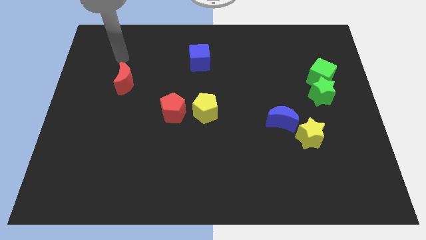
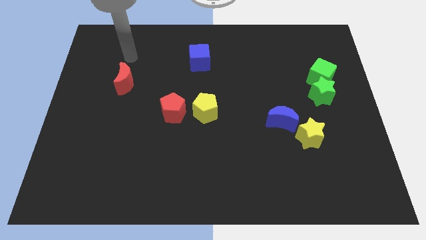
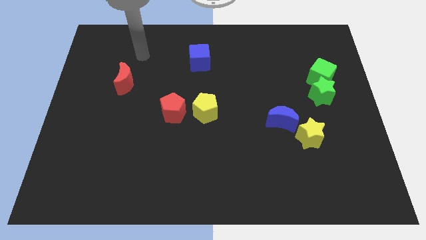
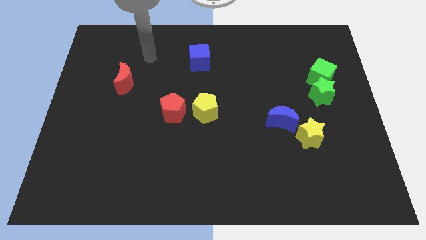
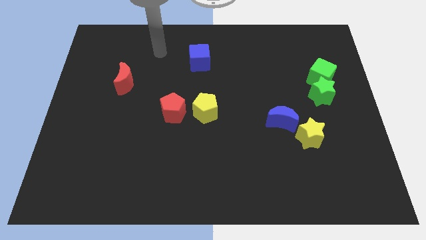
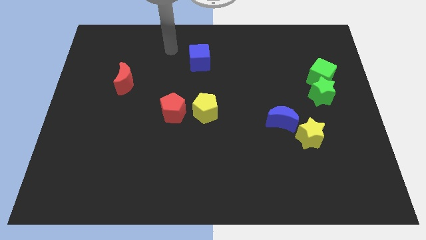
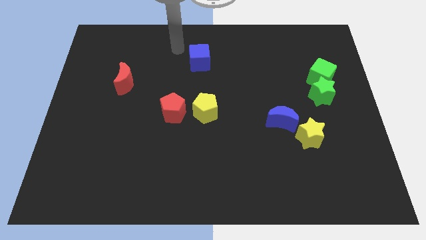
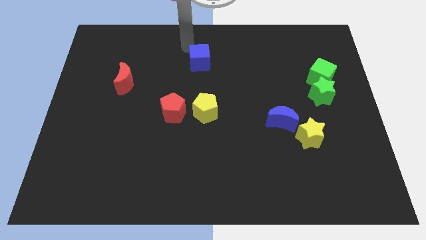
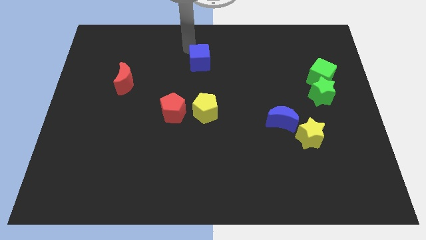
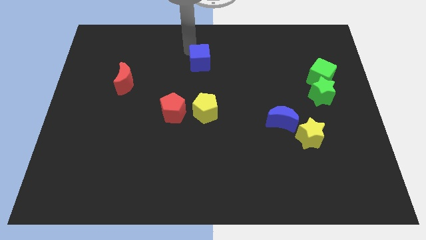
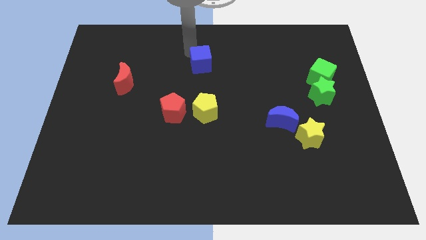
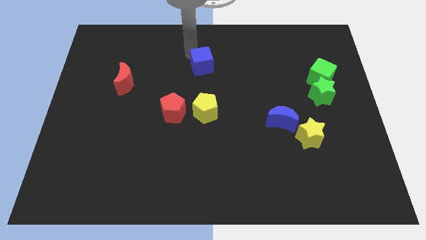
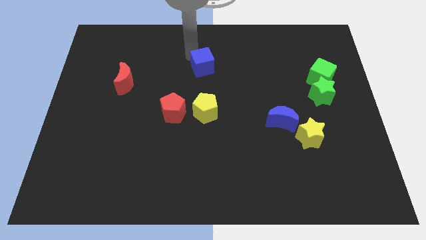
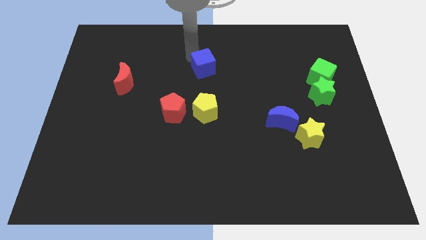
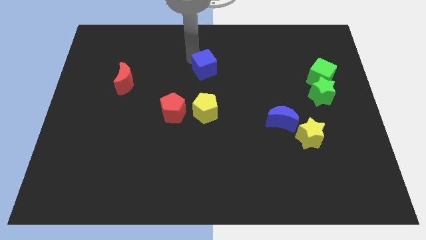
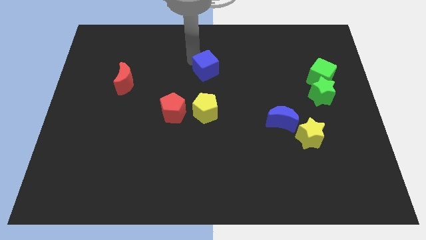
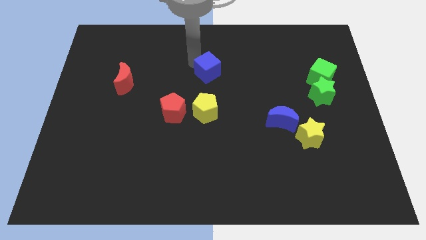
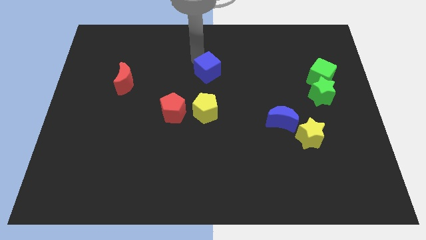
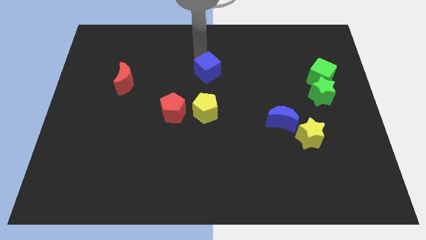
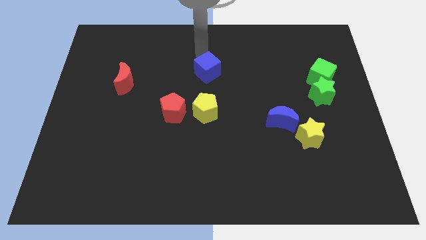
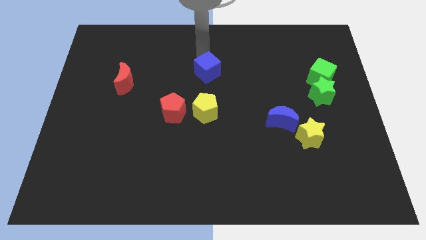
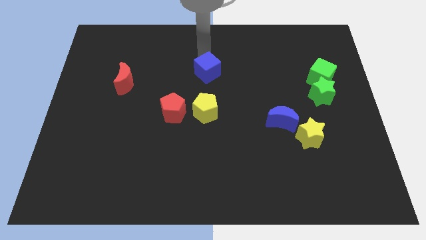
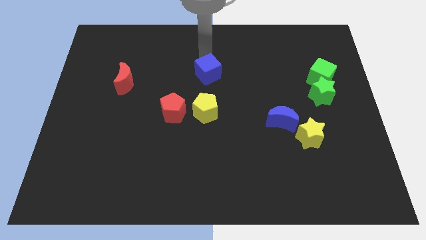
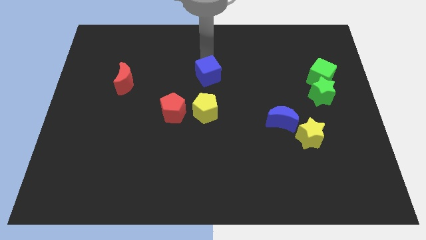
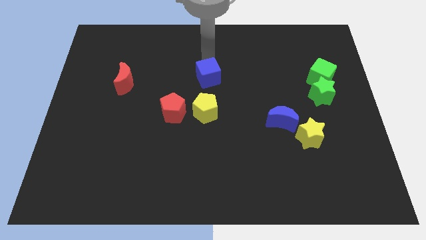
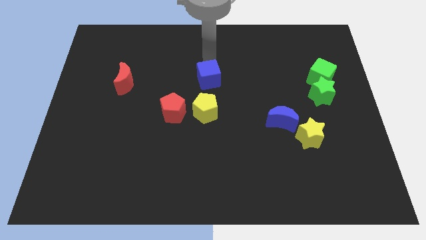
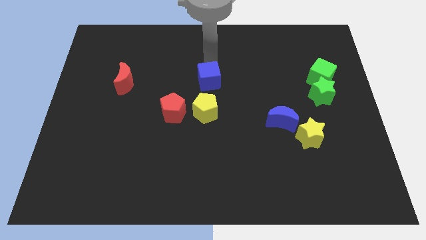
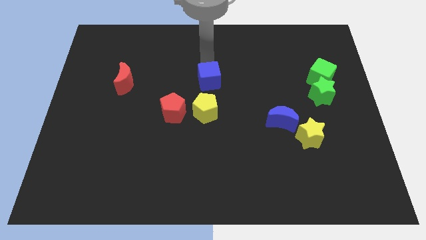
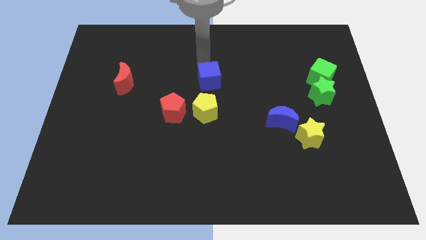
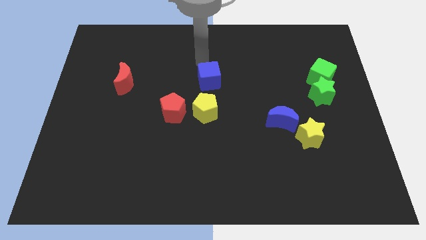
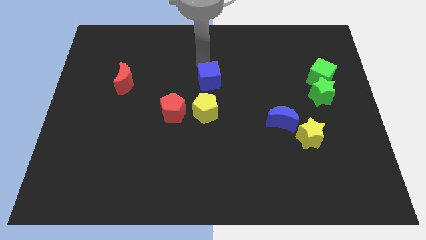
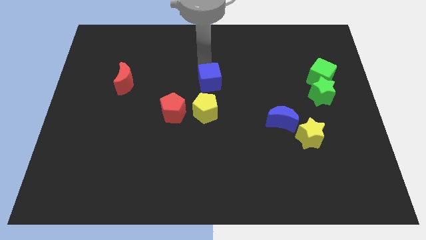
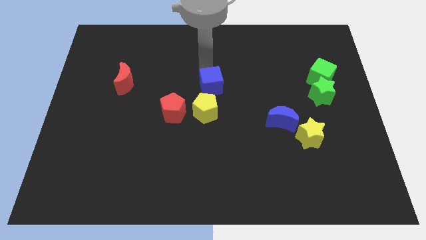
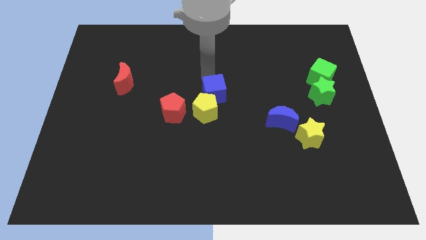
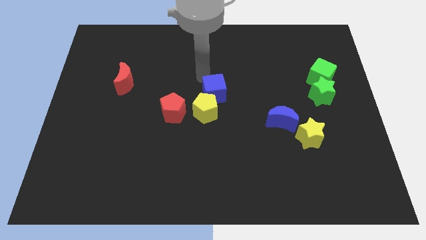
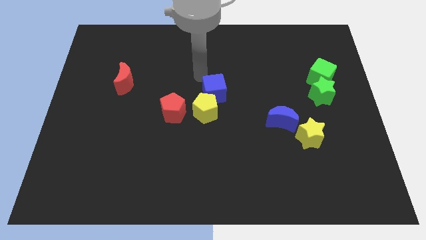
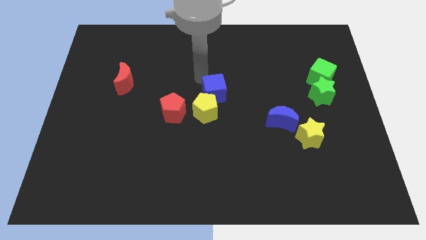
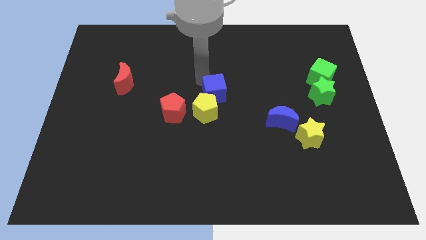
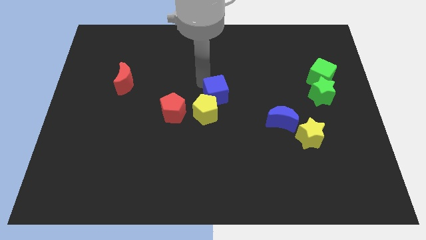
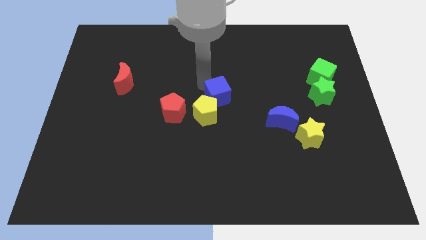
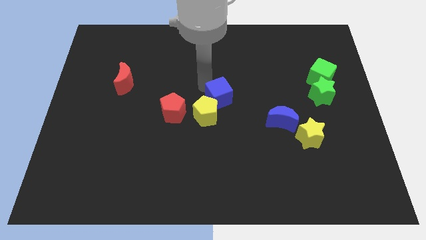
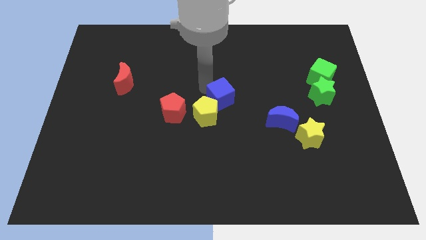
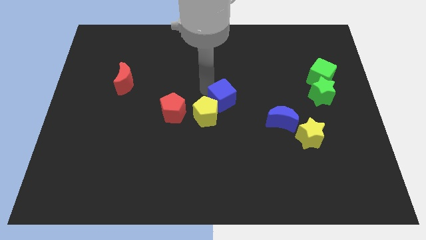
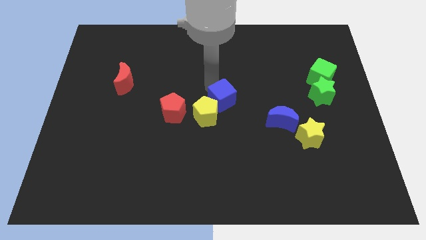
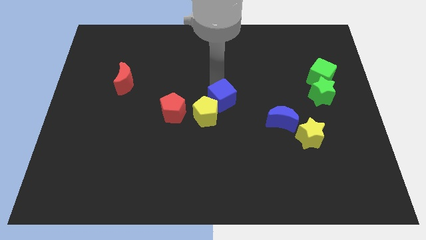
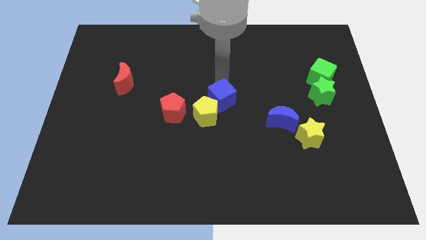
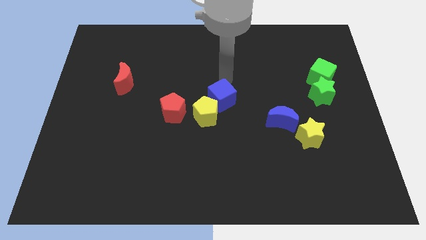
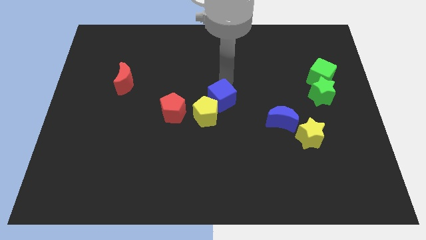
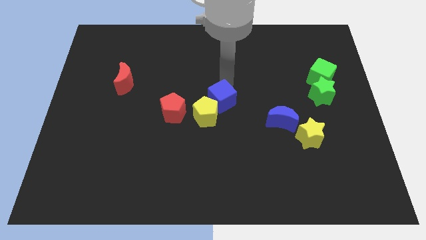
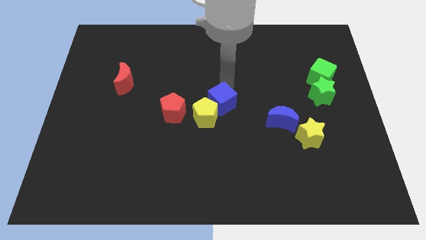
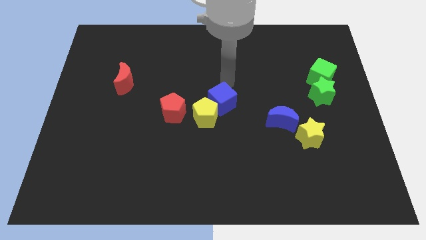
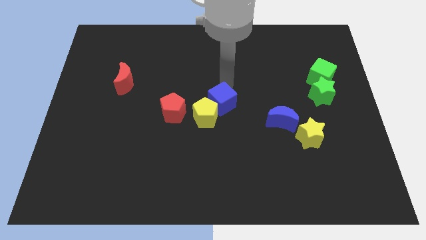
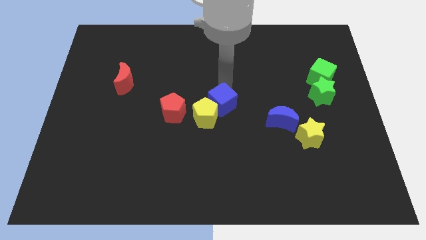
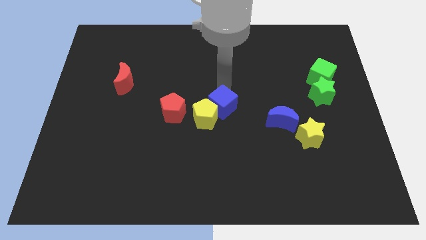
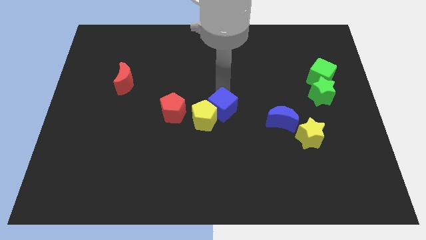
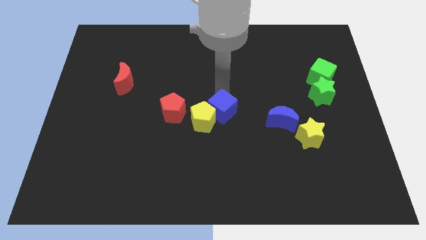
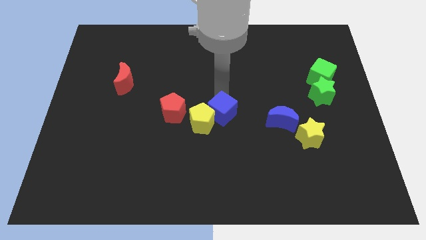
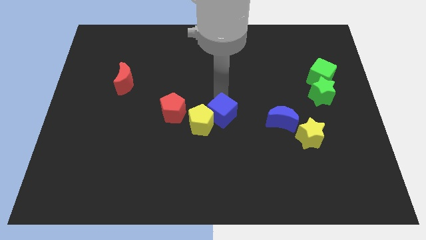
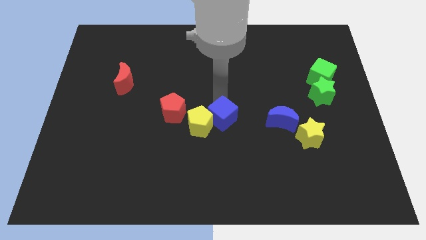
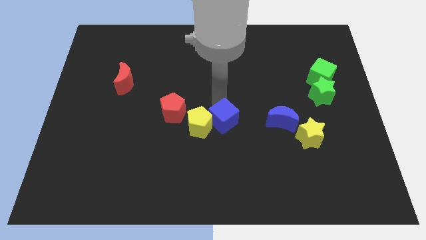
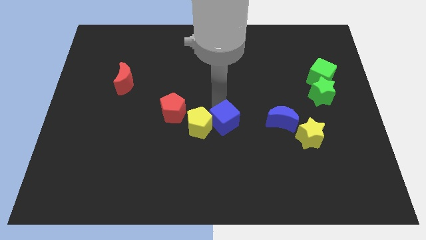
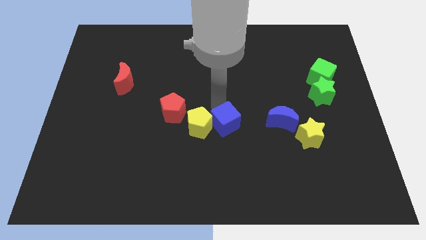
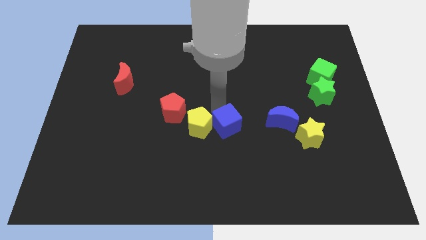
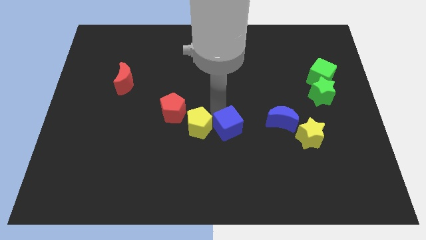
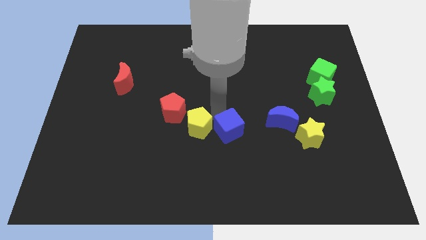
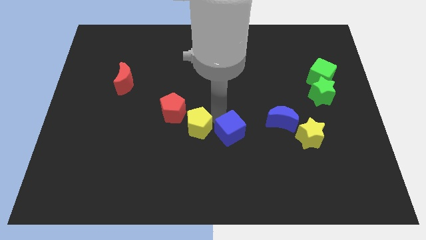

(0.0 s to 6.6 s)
move the blue cube downwards

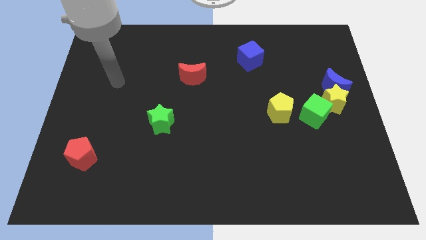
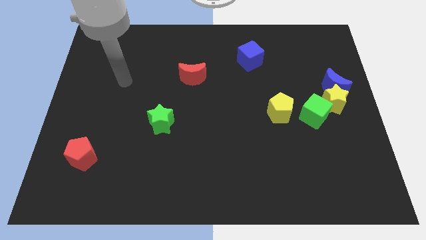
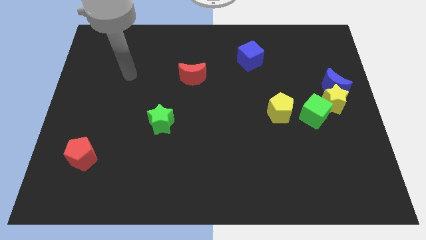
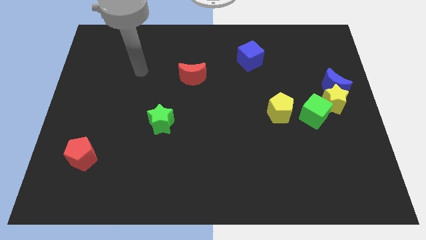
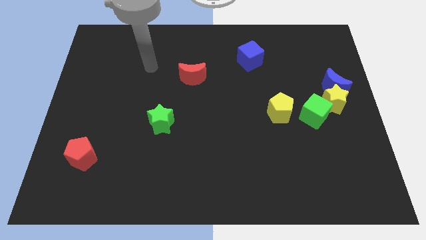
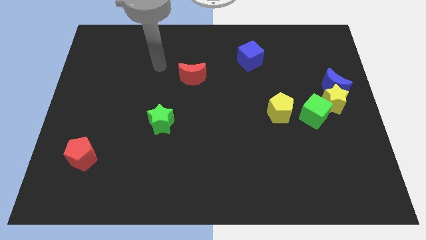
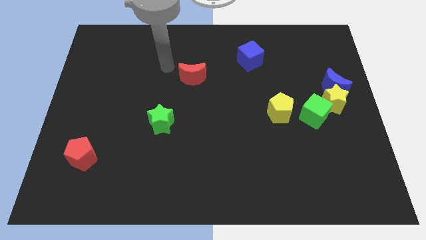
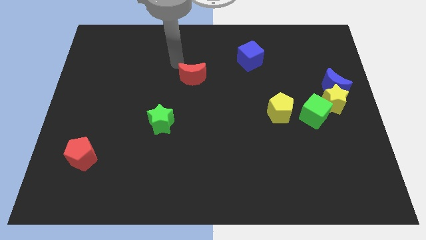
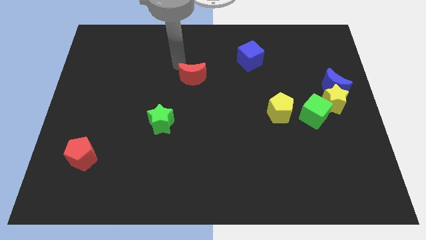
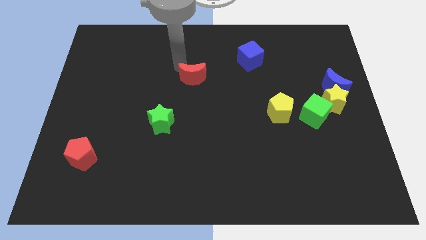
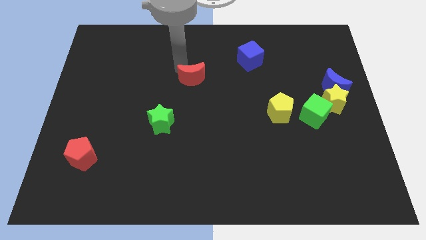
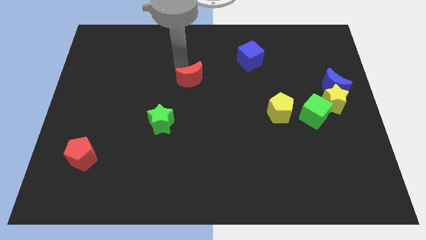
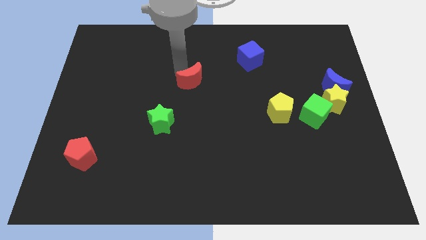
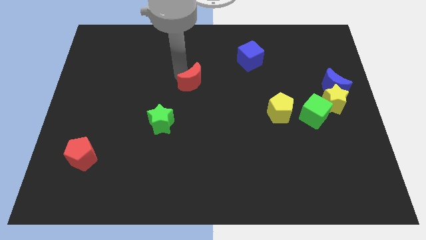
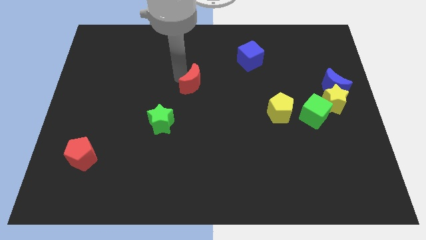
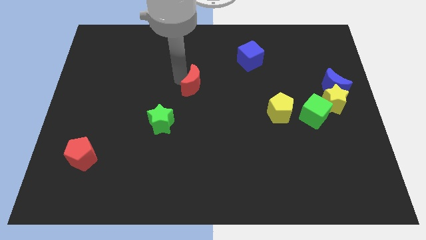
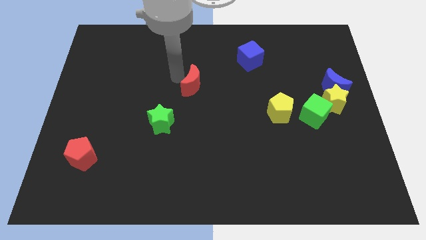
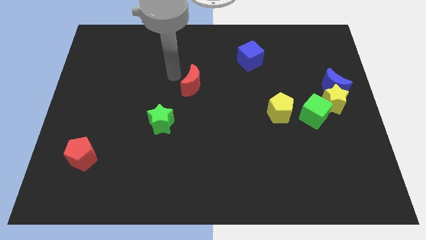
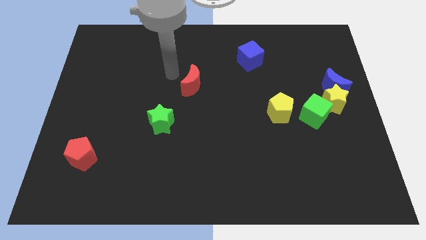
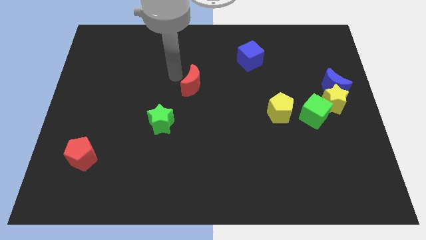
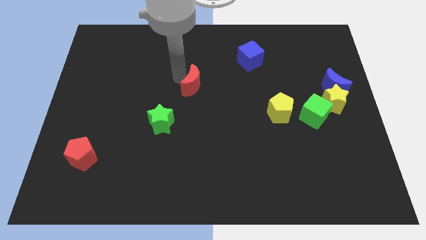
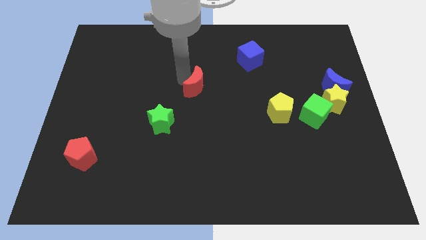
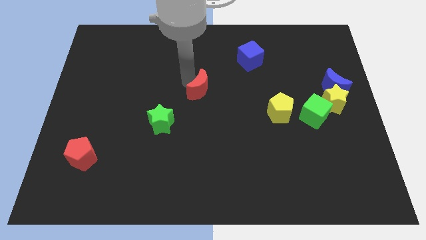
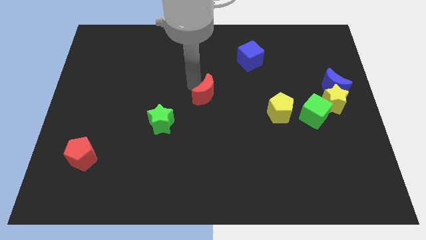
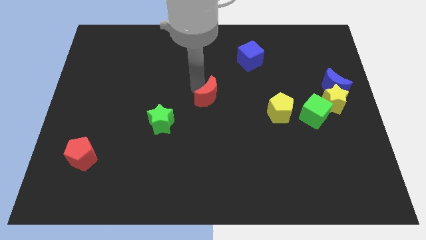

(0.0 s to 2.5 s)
slide the red moon somewhat down and to the right diagonally
